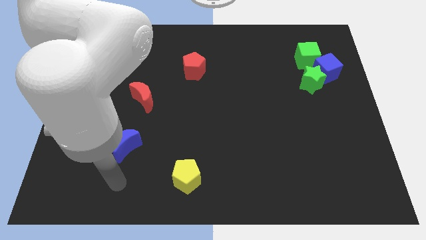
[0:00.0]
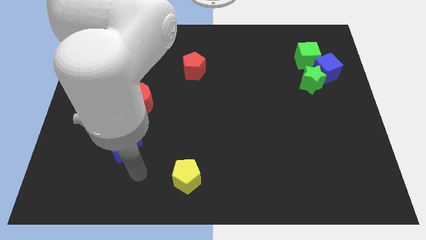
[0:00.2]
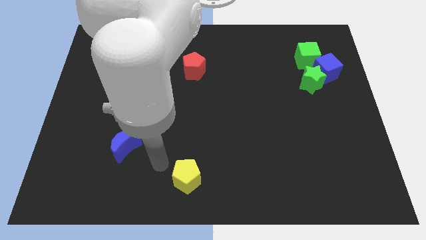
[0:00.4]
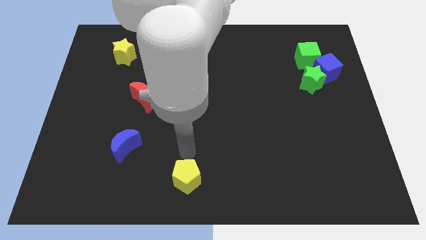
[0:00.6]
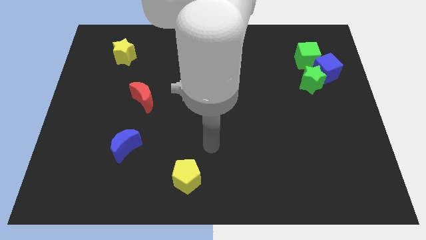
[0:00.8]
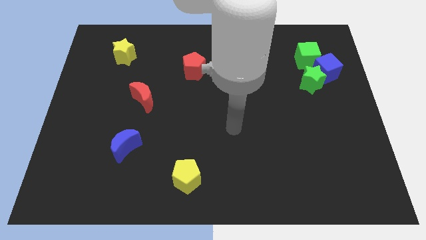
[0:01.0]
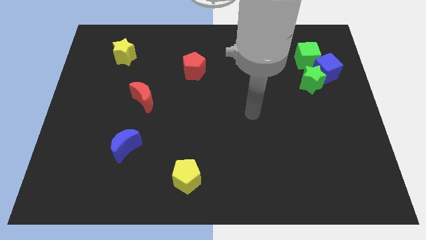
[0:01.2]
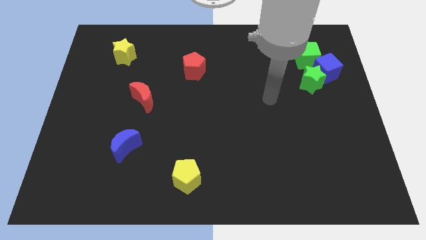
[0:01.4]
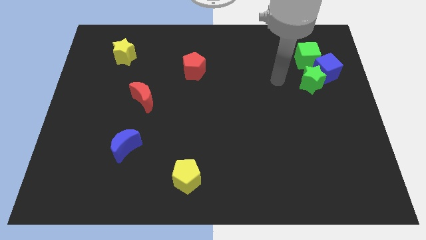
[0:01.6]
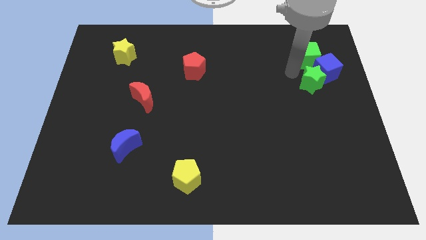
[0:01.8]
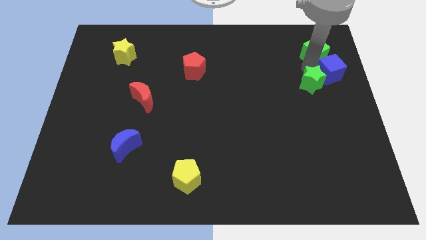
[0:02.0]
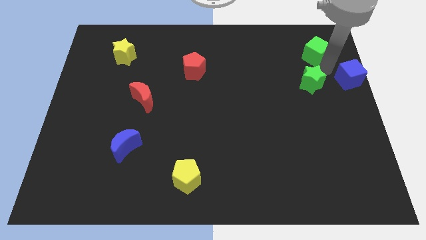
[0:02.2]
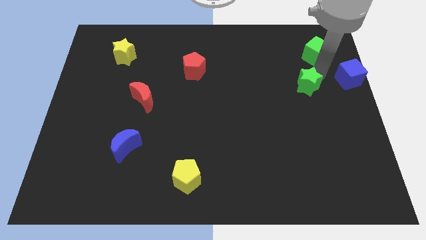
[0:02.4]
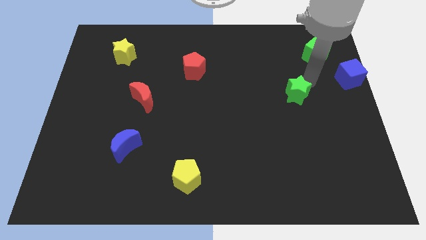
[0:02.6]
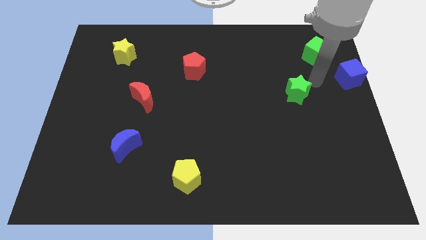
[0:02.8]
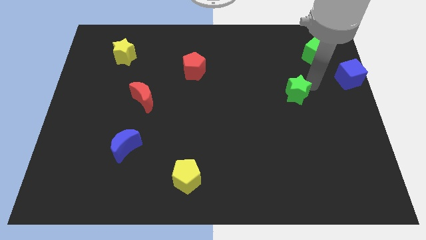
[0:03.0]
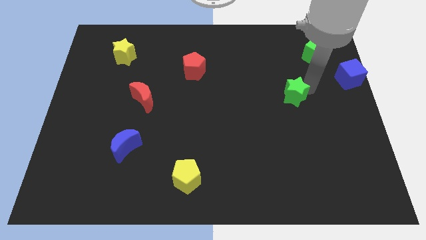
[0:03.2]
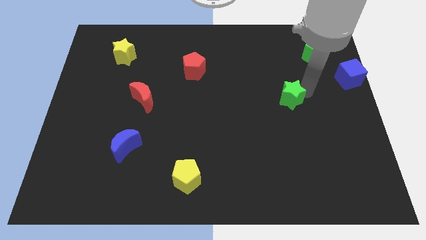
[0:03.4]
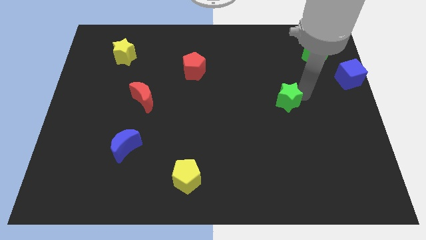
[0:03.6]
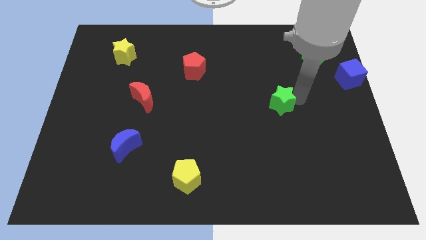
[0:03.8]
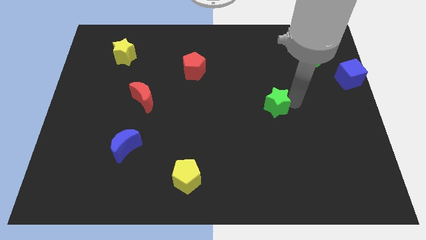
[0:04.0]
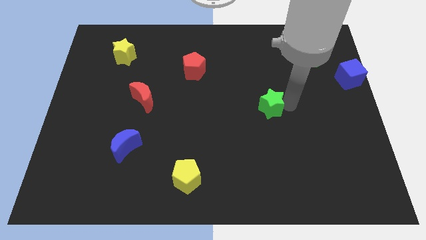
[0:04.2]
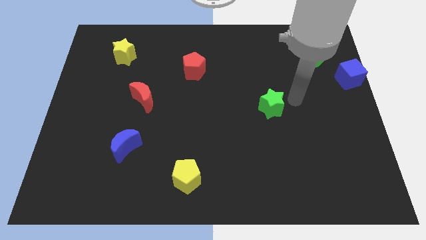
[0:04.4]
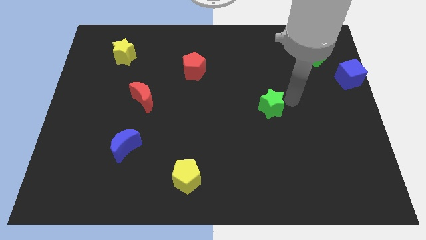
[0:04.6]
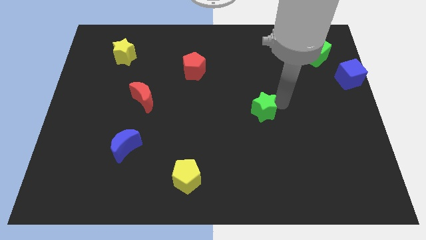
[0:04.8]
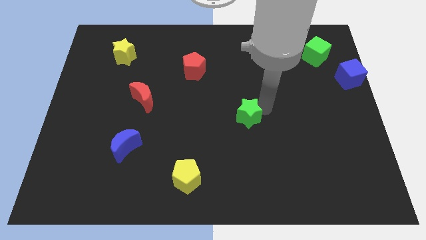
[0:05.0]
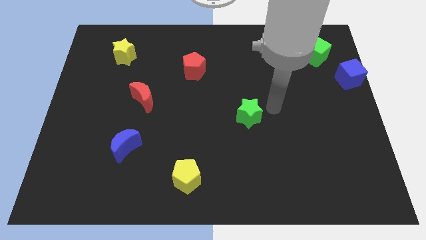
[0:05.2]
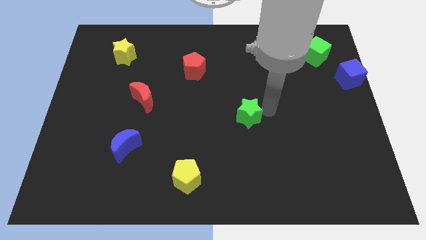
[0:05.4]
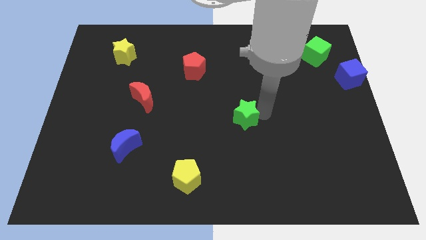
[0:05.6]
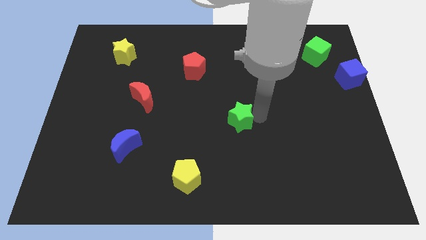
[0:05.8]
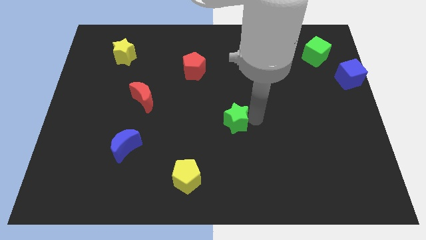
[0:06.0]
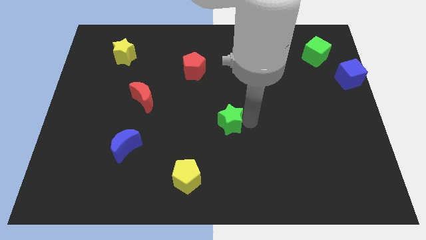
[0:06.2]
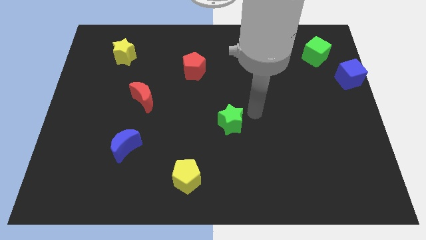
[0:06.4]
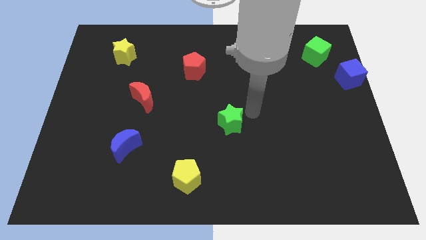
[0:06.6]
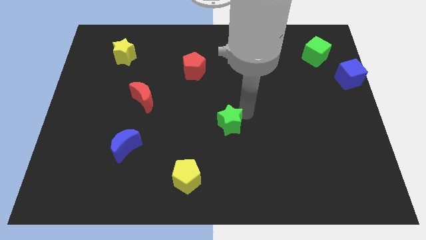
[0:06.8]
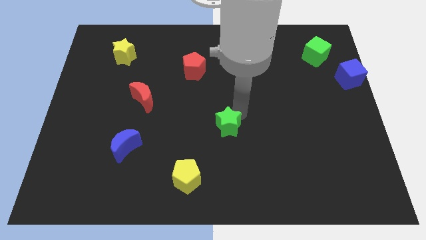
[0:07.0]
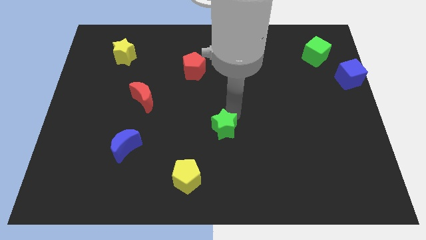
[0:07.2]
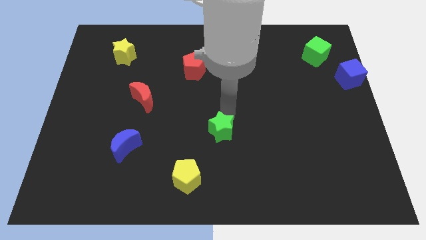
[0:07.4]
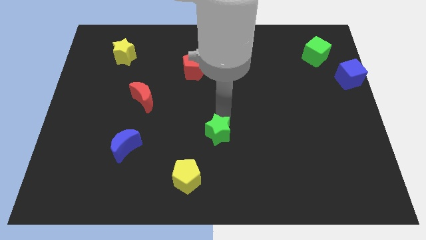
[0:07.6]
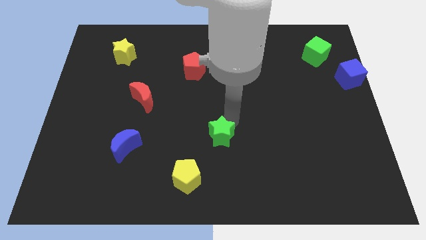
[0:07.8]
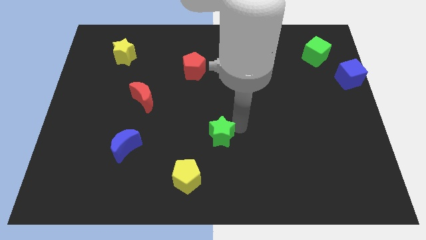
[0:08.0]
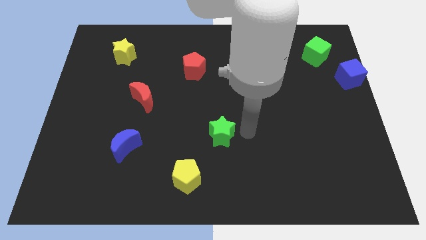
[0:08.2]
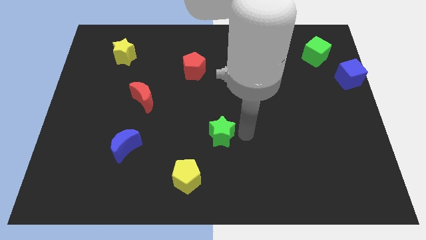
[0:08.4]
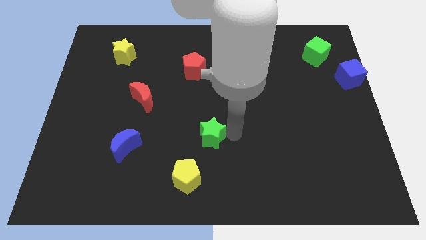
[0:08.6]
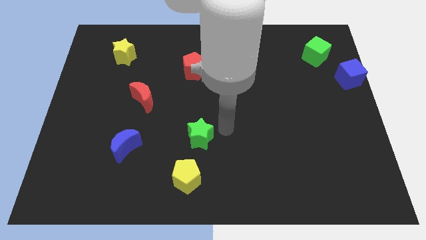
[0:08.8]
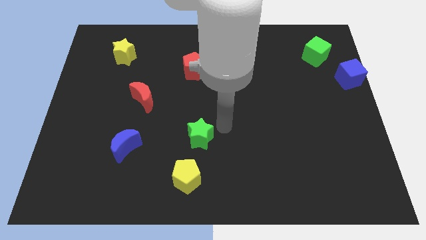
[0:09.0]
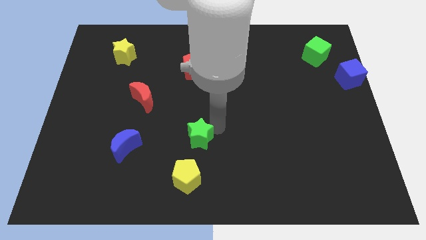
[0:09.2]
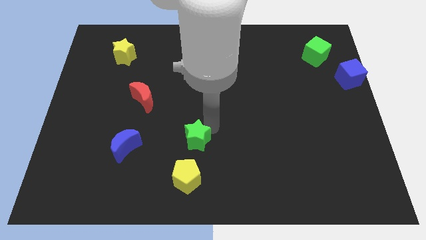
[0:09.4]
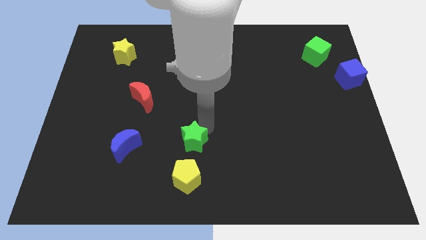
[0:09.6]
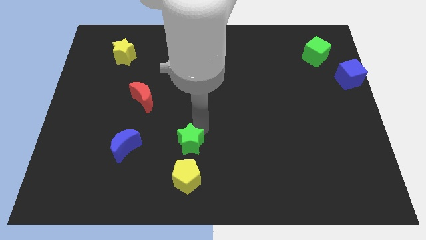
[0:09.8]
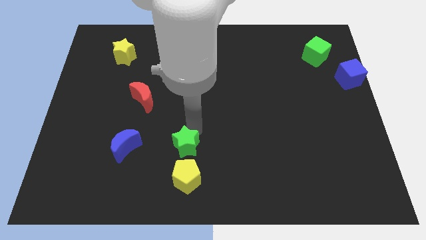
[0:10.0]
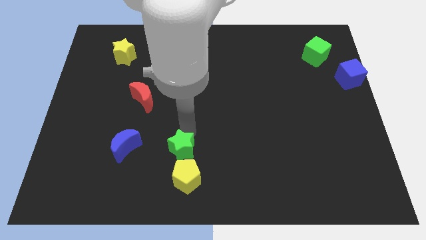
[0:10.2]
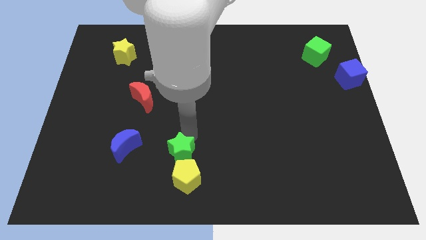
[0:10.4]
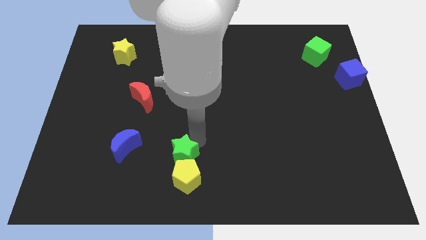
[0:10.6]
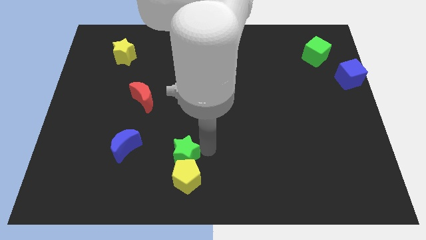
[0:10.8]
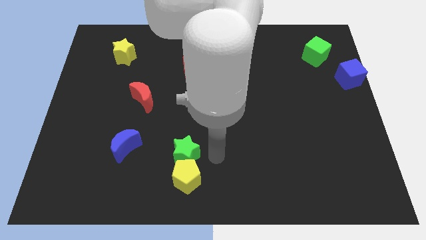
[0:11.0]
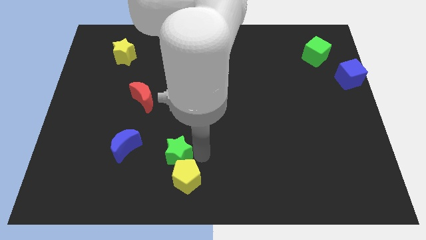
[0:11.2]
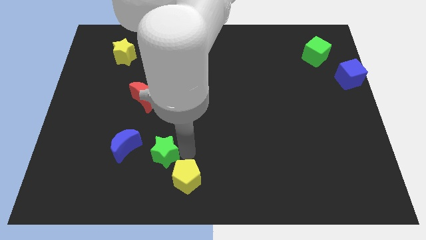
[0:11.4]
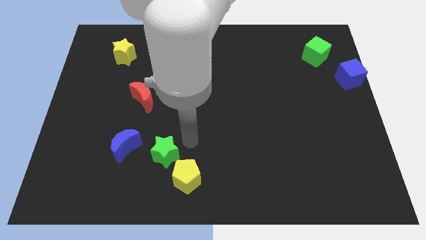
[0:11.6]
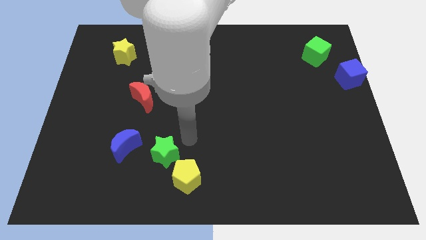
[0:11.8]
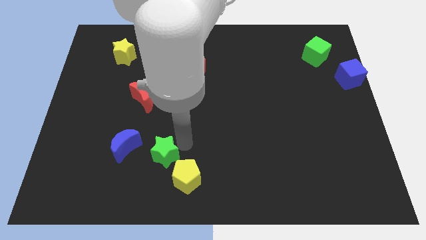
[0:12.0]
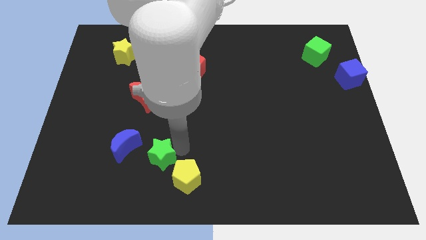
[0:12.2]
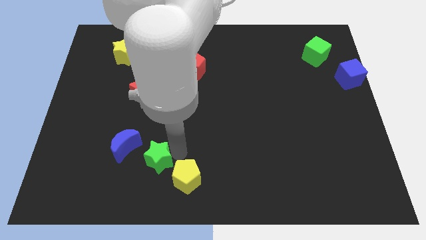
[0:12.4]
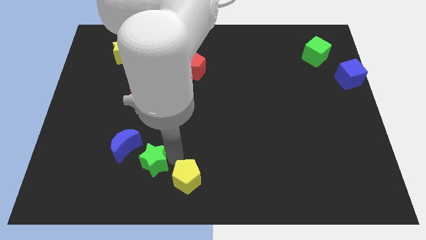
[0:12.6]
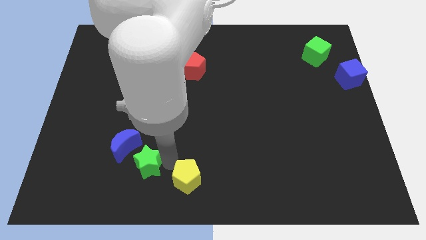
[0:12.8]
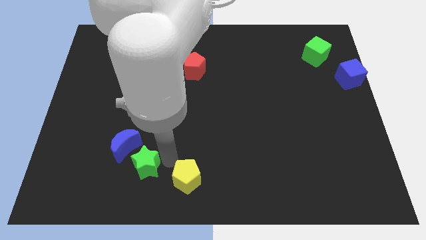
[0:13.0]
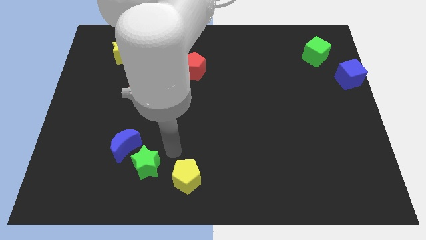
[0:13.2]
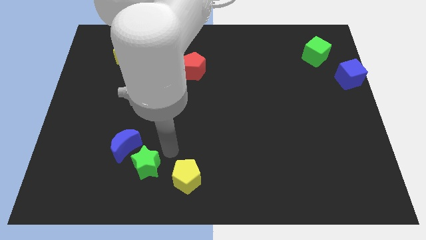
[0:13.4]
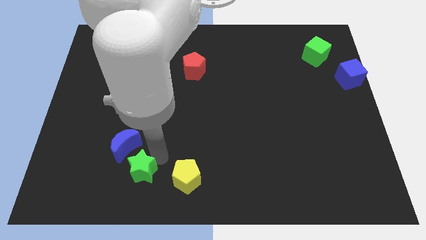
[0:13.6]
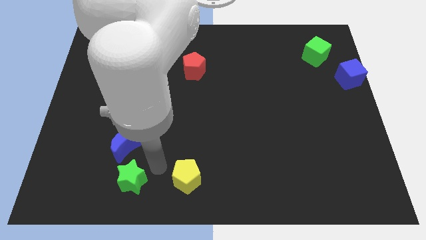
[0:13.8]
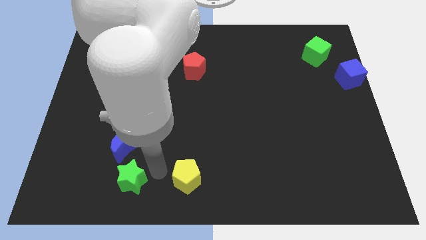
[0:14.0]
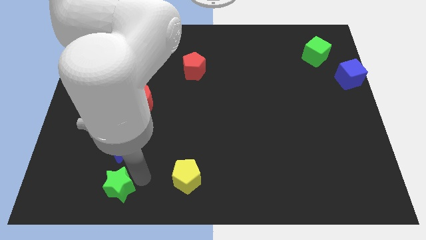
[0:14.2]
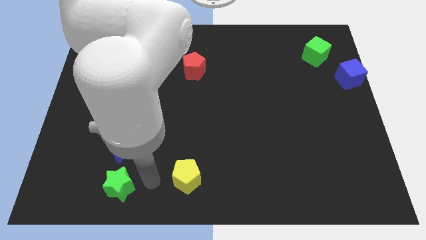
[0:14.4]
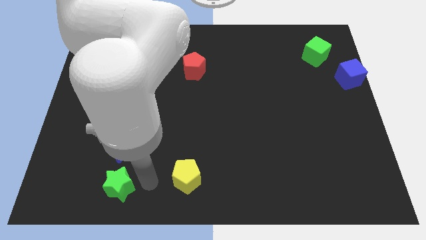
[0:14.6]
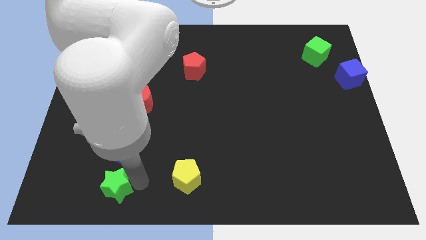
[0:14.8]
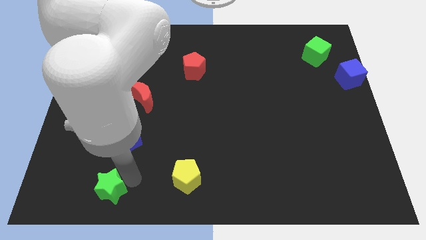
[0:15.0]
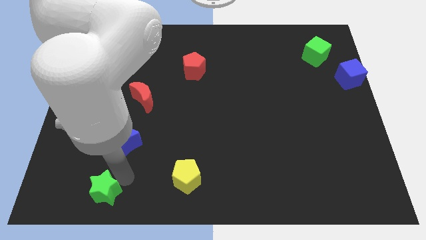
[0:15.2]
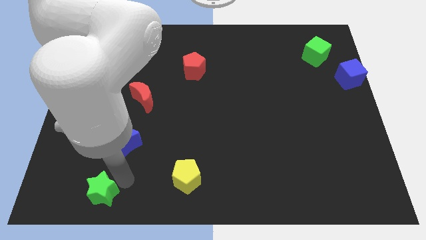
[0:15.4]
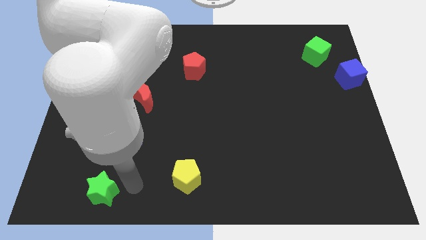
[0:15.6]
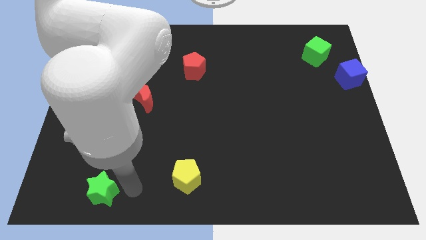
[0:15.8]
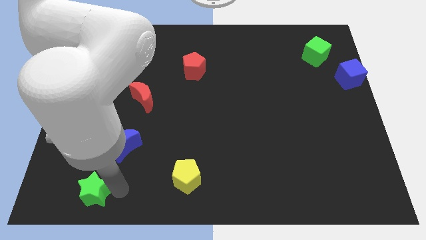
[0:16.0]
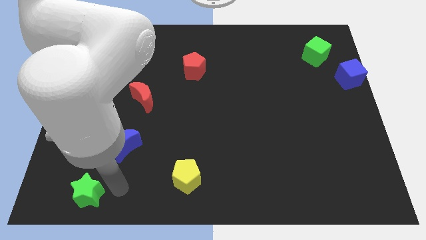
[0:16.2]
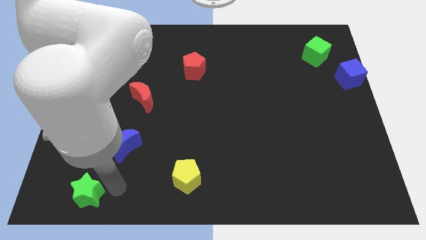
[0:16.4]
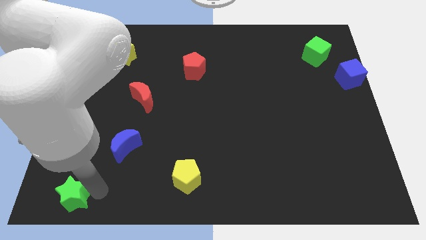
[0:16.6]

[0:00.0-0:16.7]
move the green star to the bottom left corner
